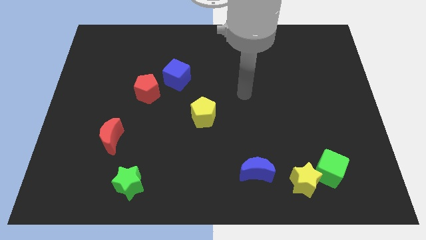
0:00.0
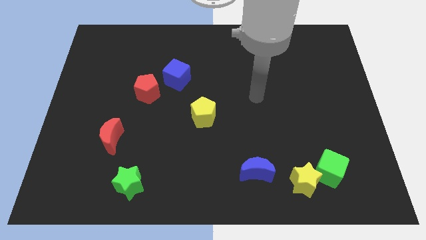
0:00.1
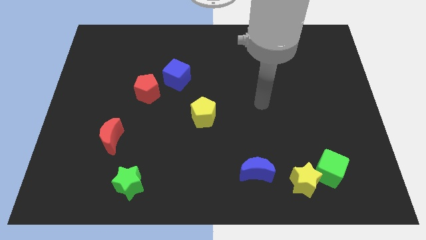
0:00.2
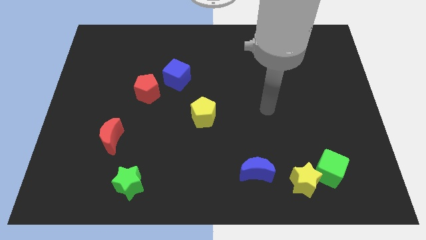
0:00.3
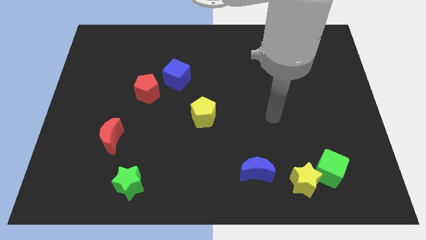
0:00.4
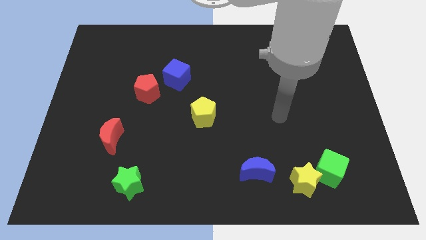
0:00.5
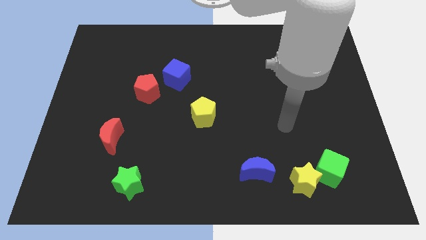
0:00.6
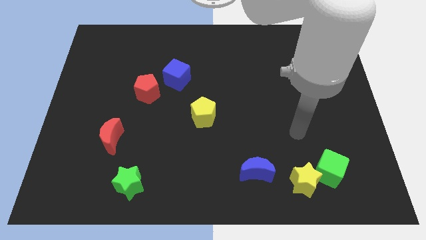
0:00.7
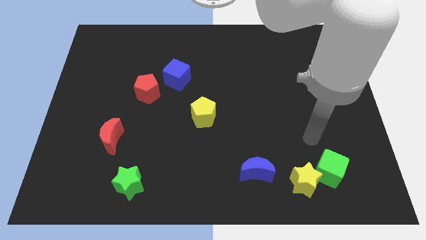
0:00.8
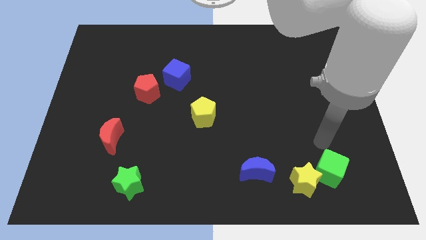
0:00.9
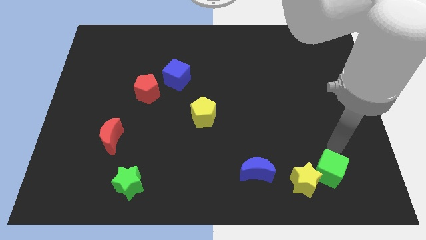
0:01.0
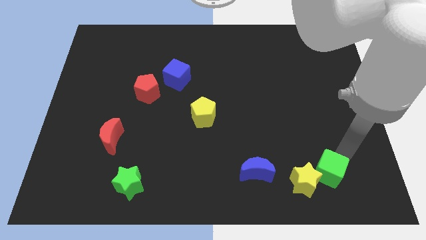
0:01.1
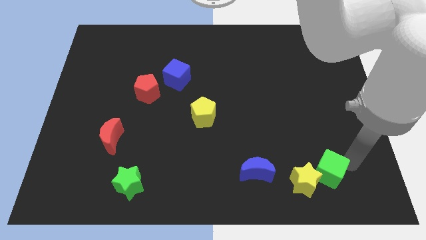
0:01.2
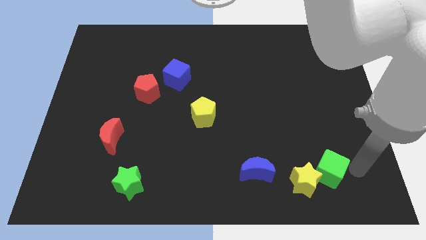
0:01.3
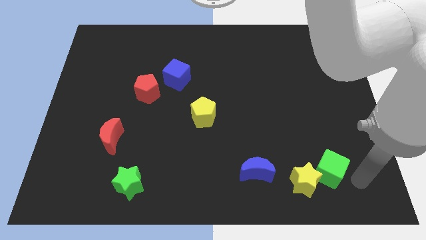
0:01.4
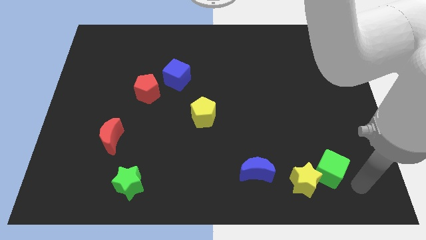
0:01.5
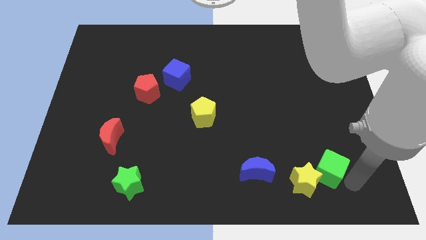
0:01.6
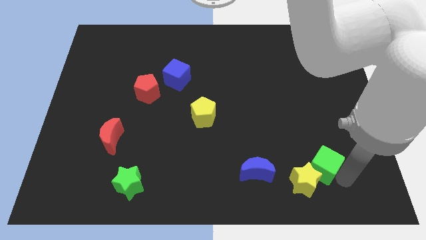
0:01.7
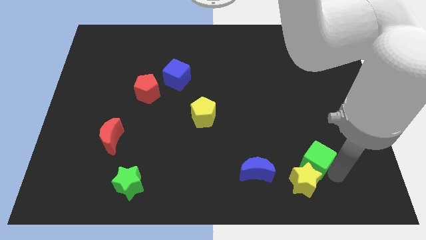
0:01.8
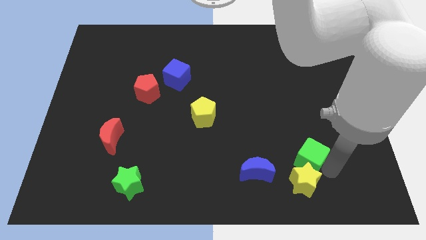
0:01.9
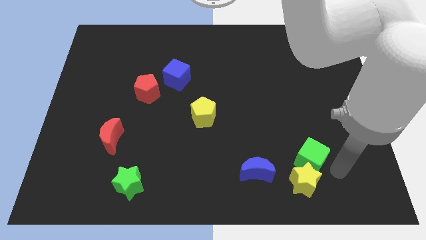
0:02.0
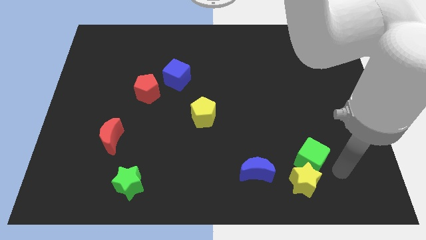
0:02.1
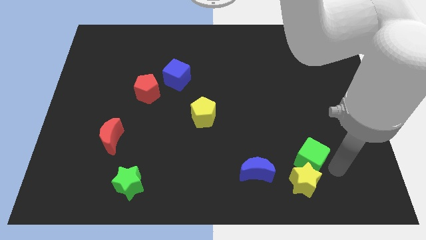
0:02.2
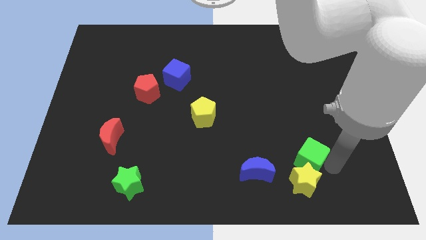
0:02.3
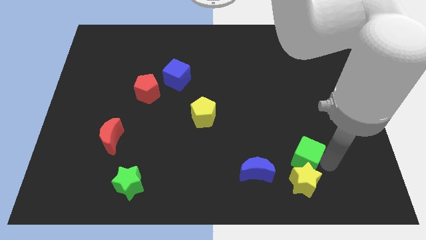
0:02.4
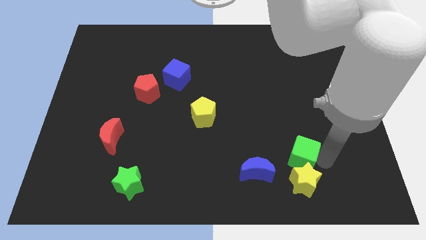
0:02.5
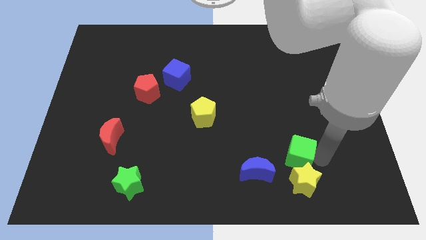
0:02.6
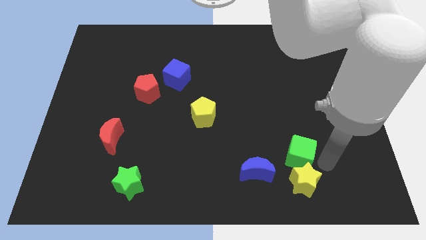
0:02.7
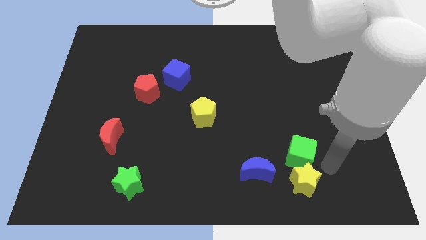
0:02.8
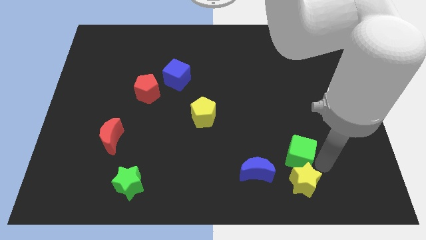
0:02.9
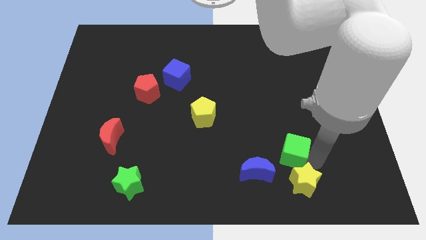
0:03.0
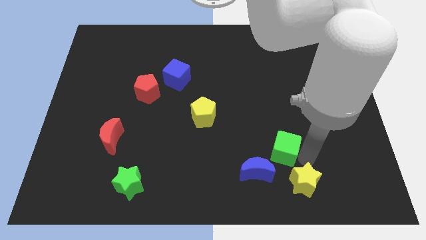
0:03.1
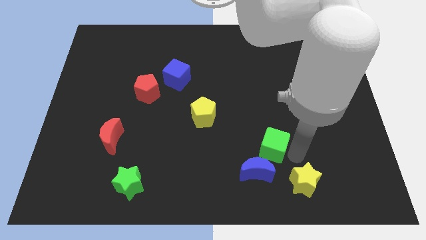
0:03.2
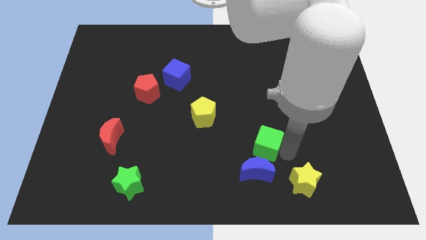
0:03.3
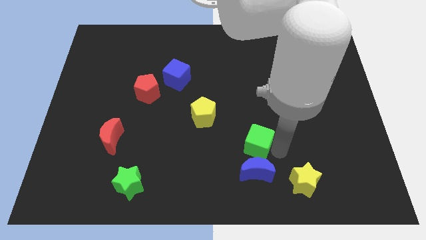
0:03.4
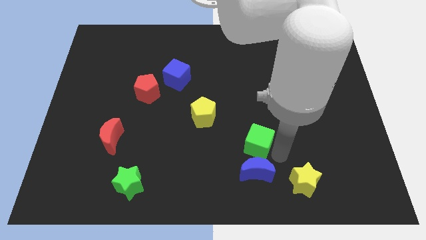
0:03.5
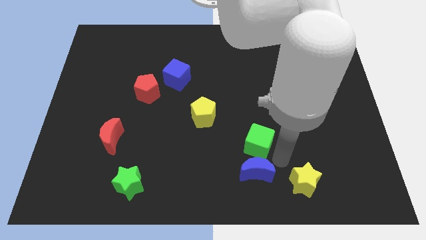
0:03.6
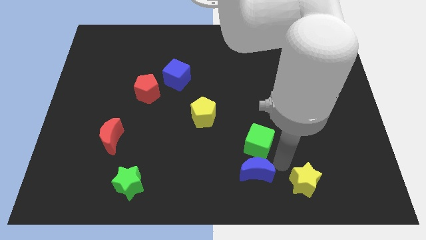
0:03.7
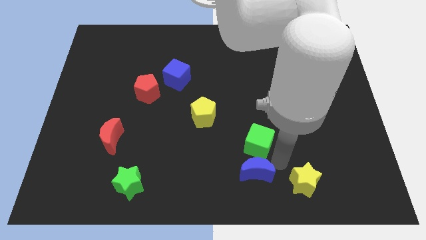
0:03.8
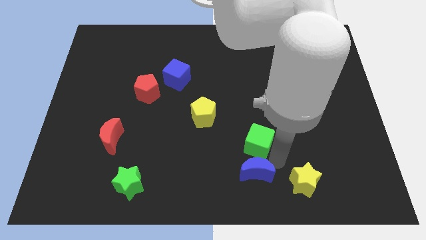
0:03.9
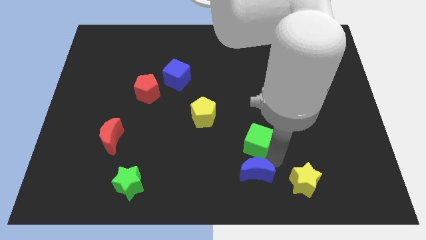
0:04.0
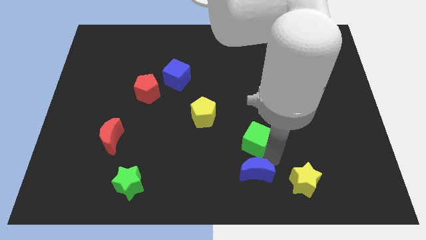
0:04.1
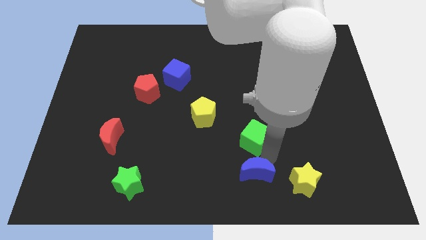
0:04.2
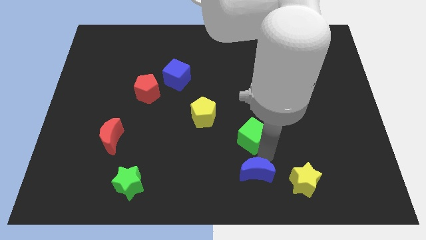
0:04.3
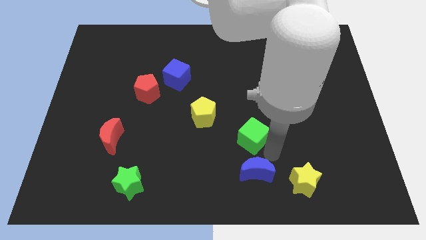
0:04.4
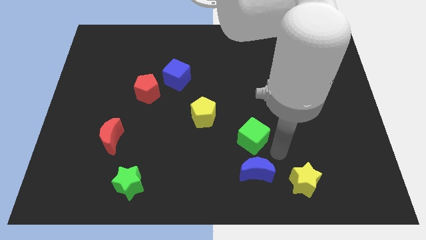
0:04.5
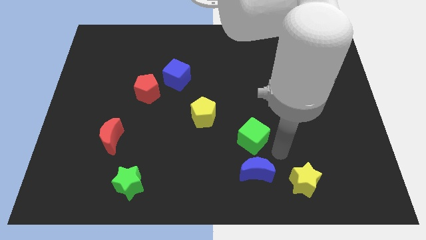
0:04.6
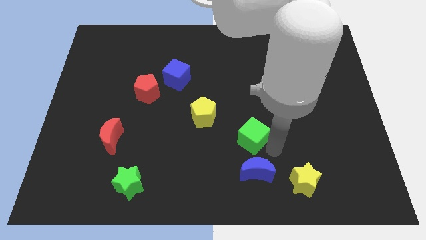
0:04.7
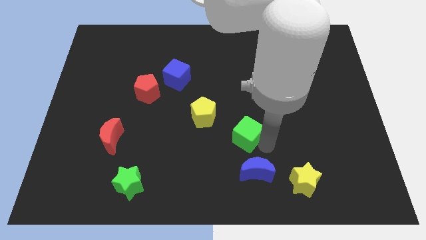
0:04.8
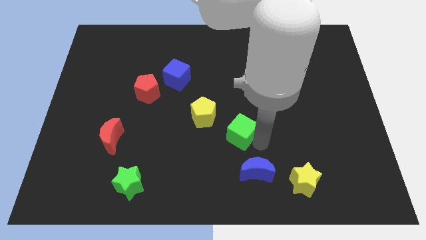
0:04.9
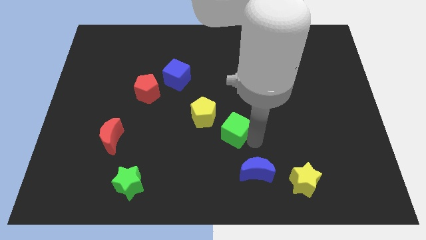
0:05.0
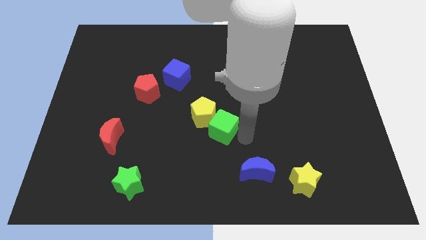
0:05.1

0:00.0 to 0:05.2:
move the green cube to the yellow pentagon

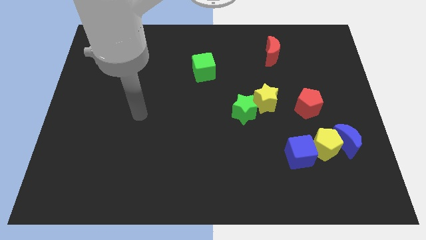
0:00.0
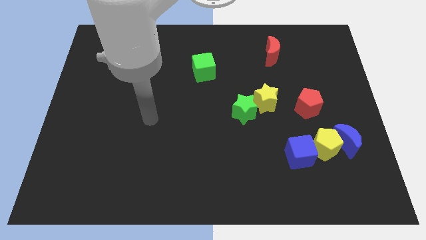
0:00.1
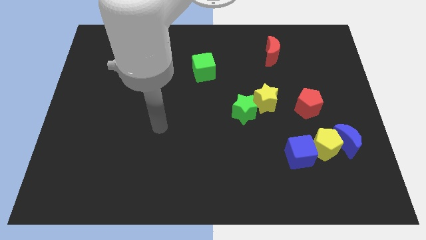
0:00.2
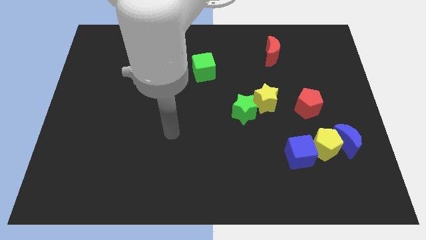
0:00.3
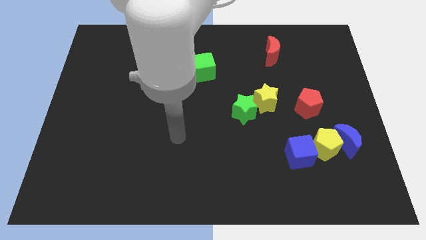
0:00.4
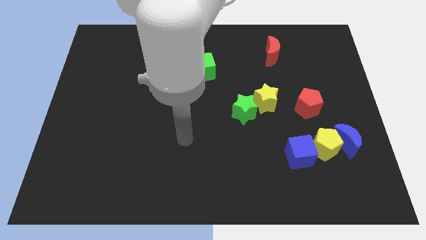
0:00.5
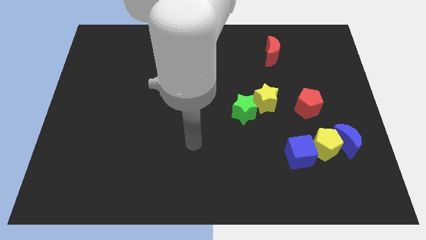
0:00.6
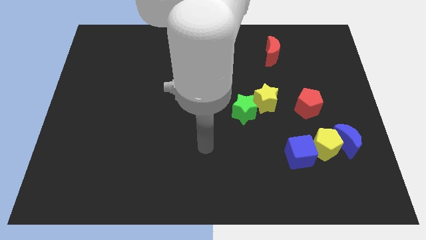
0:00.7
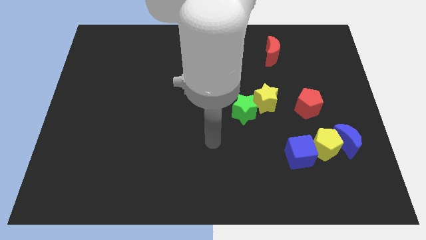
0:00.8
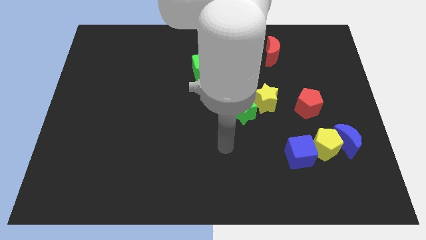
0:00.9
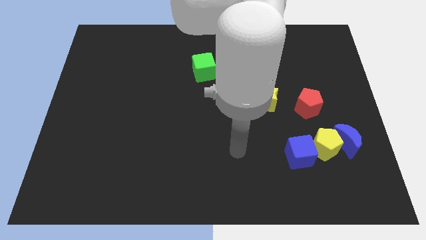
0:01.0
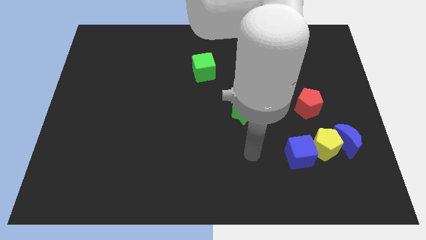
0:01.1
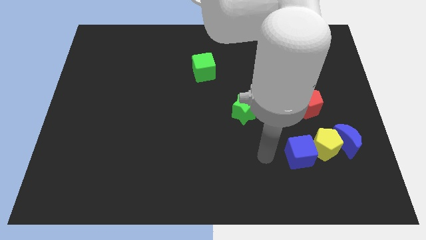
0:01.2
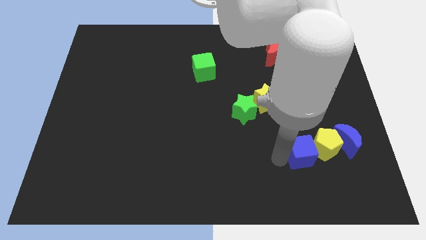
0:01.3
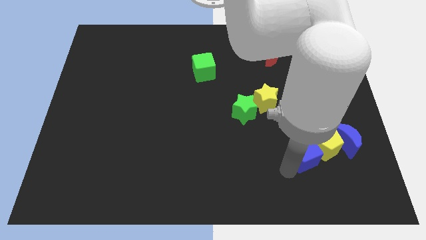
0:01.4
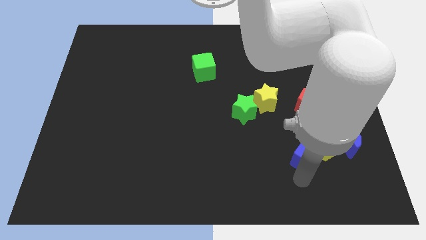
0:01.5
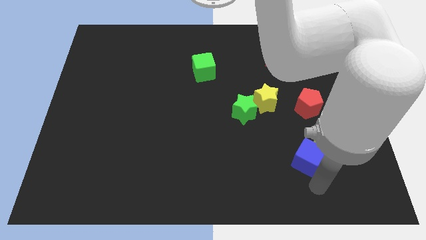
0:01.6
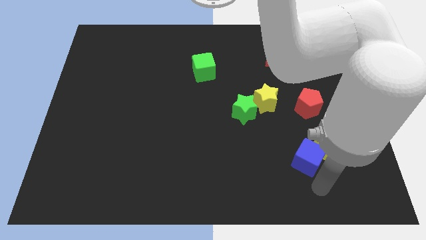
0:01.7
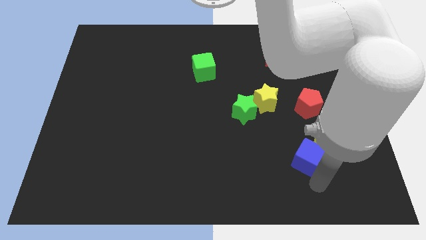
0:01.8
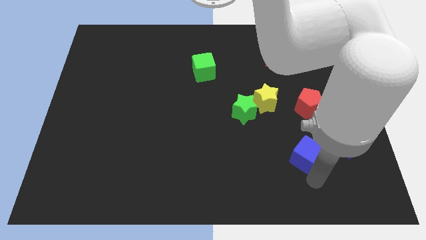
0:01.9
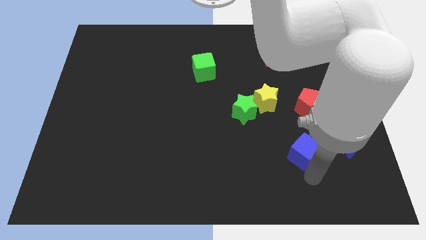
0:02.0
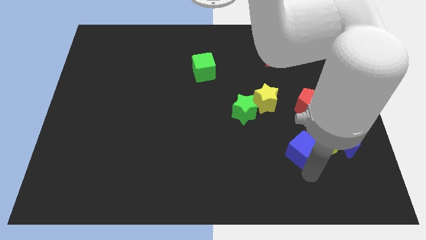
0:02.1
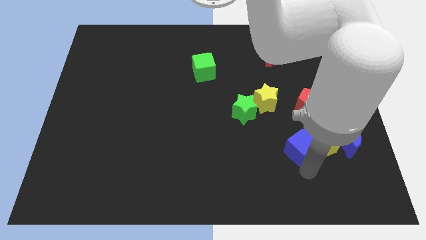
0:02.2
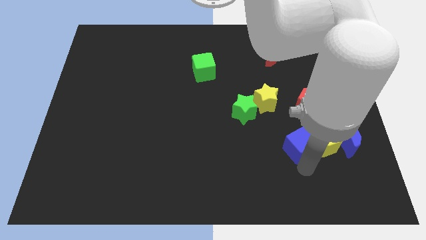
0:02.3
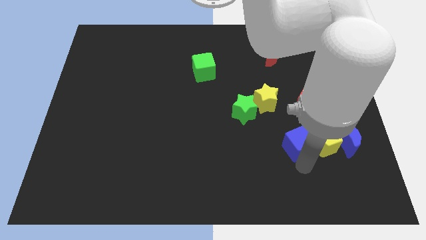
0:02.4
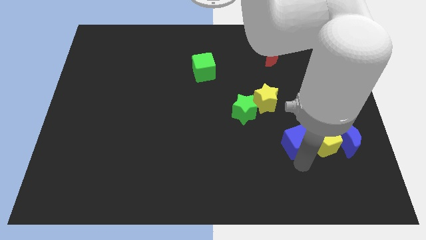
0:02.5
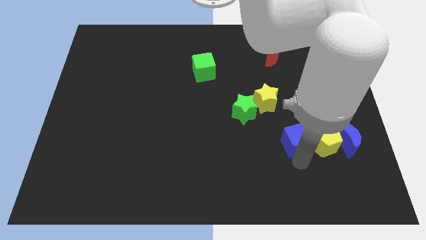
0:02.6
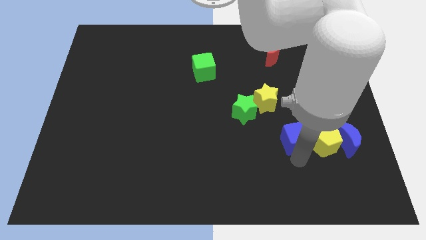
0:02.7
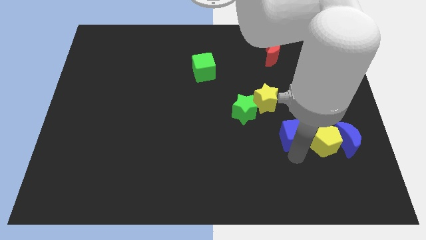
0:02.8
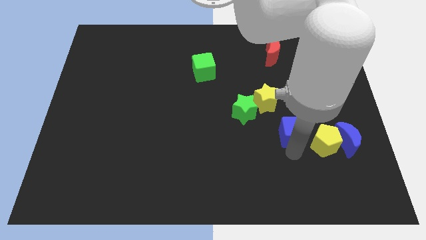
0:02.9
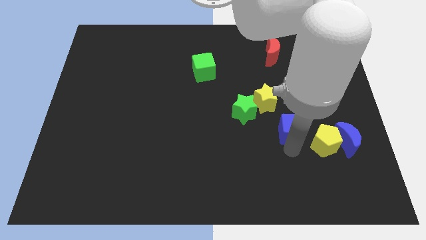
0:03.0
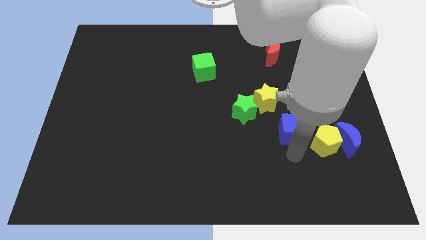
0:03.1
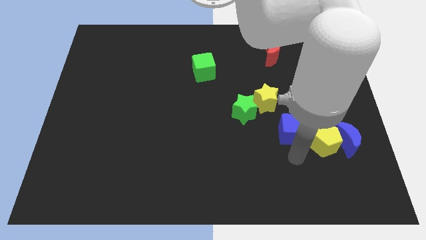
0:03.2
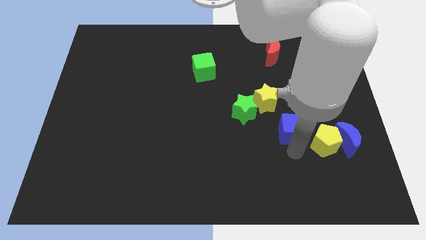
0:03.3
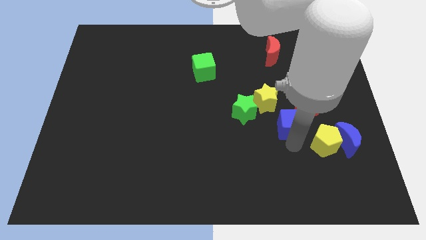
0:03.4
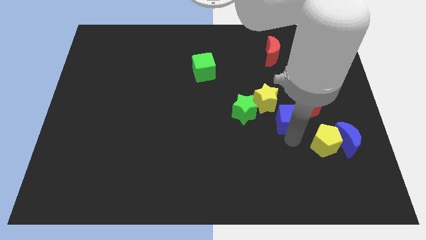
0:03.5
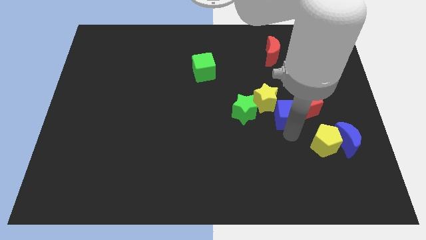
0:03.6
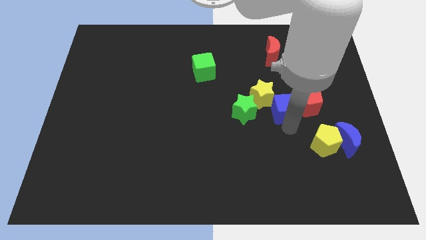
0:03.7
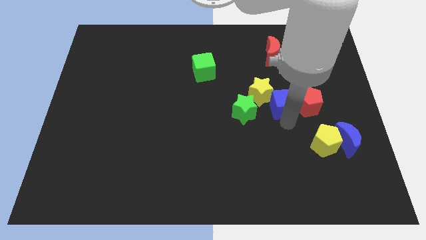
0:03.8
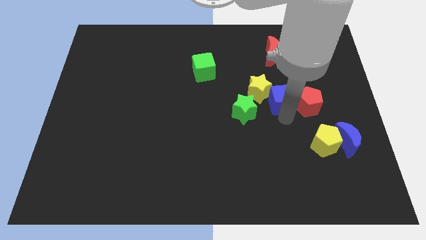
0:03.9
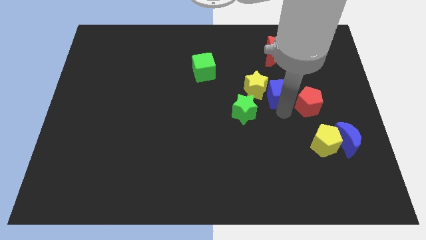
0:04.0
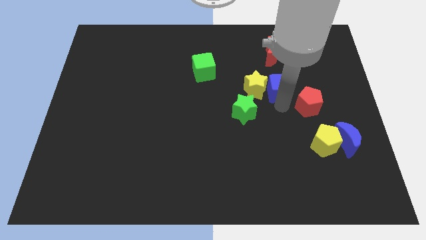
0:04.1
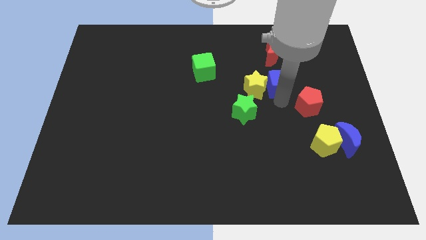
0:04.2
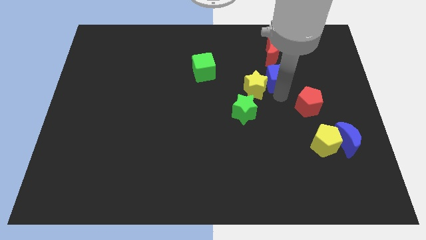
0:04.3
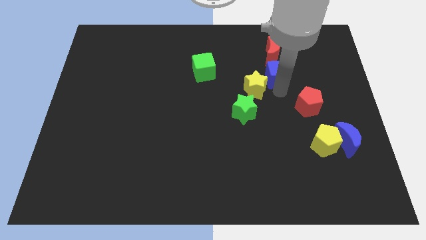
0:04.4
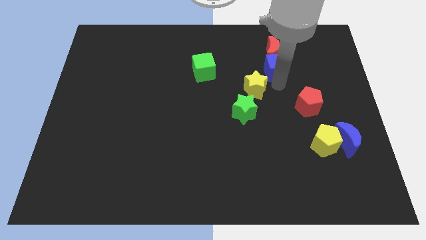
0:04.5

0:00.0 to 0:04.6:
slide the blue cube close to the red moon
